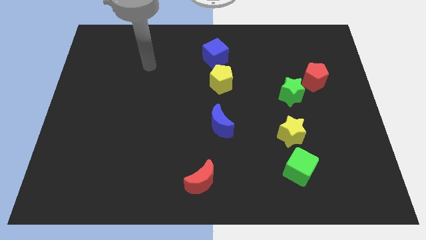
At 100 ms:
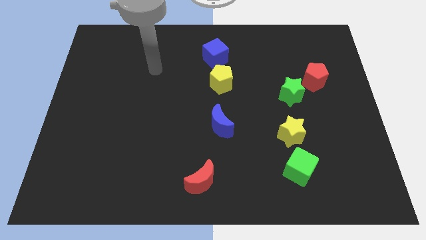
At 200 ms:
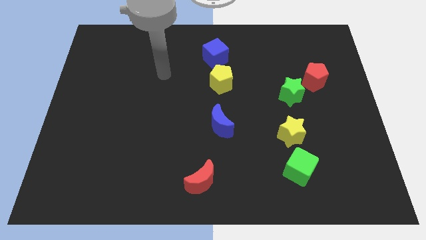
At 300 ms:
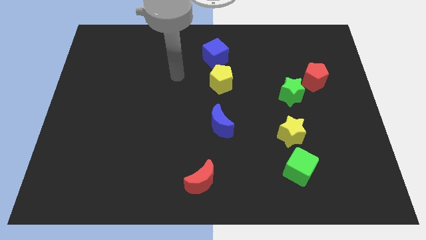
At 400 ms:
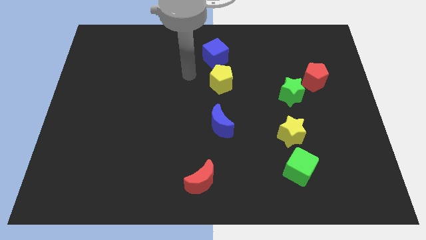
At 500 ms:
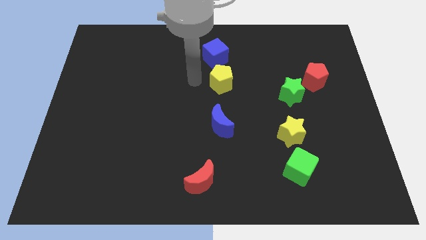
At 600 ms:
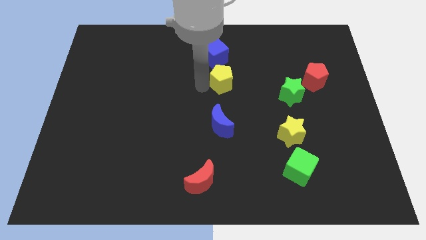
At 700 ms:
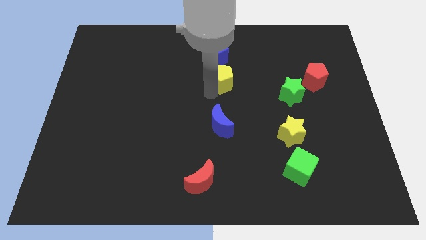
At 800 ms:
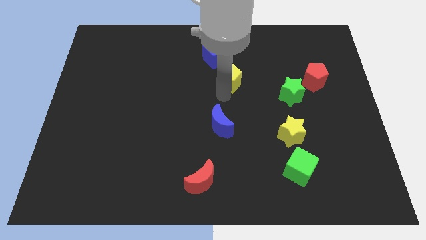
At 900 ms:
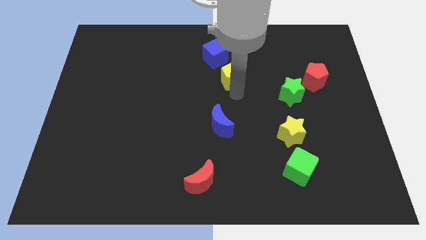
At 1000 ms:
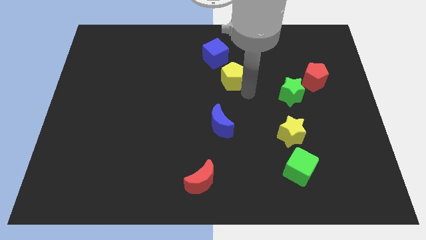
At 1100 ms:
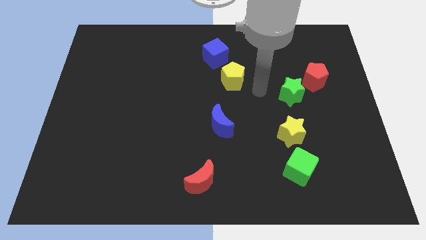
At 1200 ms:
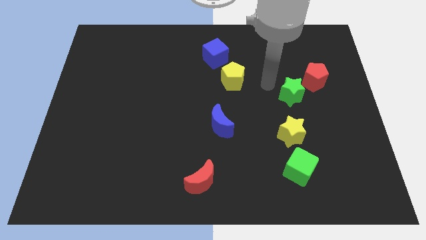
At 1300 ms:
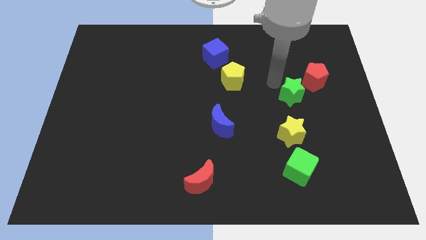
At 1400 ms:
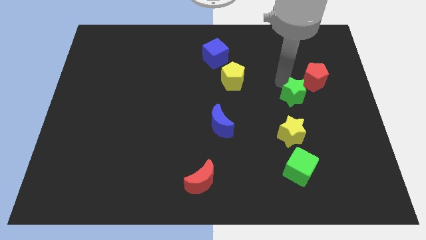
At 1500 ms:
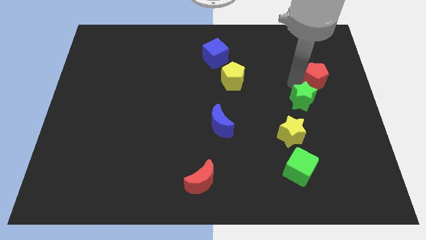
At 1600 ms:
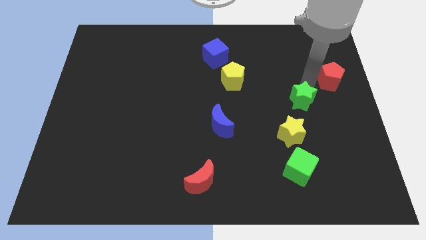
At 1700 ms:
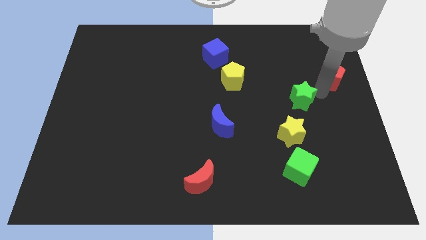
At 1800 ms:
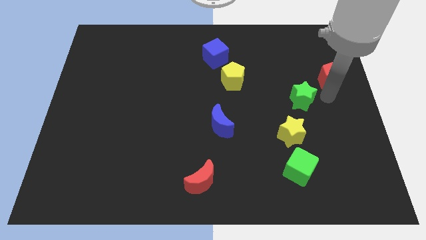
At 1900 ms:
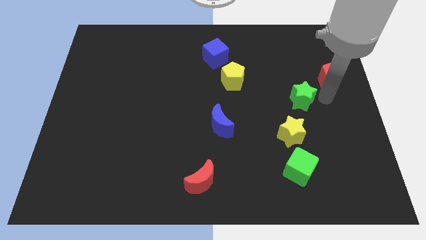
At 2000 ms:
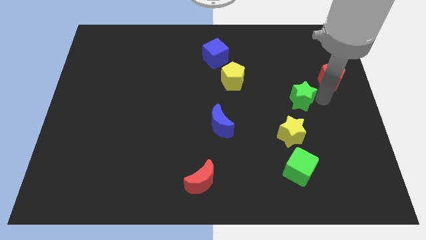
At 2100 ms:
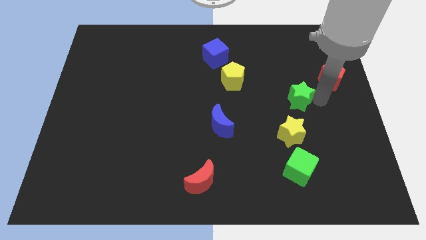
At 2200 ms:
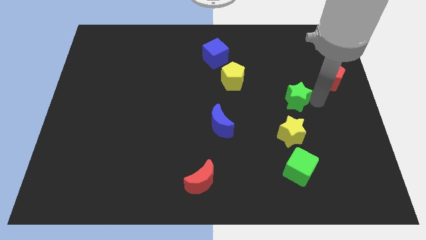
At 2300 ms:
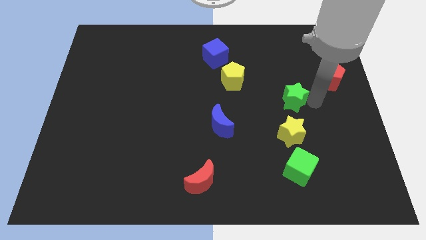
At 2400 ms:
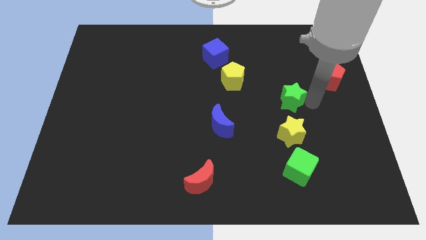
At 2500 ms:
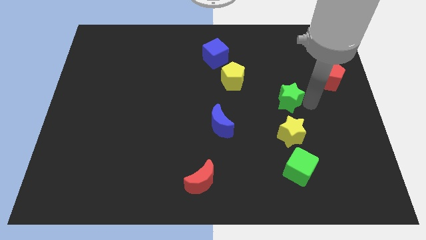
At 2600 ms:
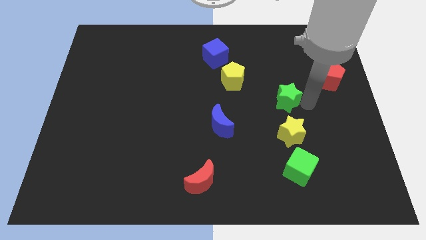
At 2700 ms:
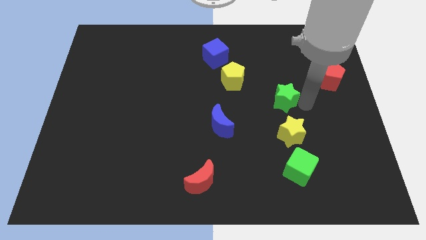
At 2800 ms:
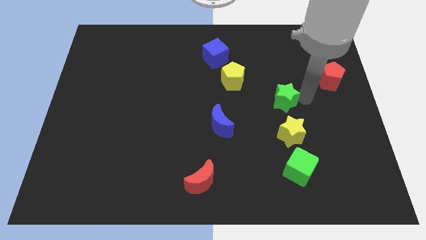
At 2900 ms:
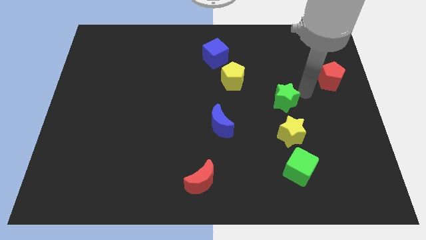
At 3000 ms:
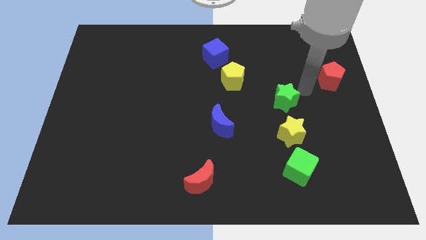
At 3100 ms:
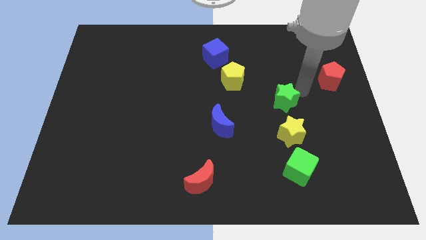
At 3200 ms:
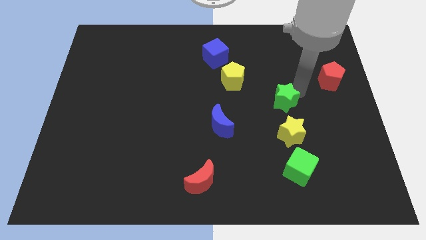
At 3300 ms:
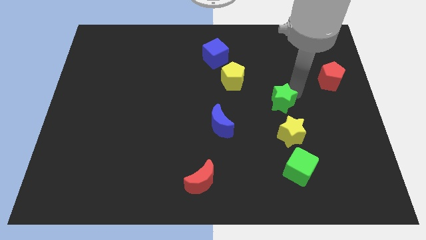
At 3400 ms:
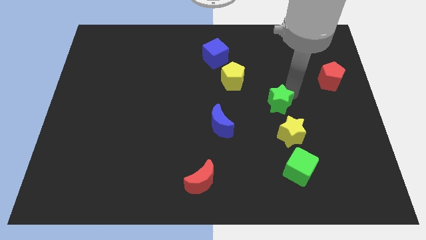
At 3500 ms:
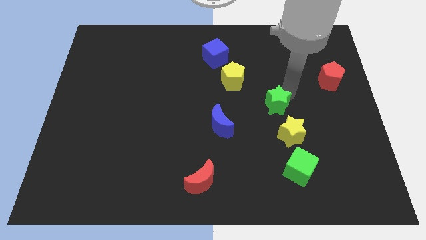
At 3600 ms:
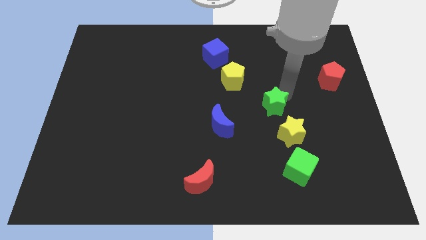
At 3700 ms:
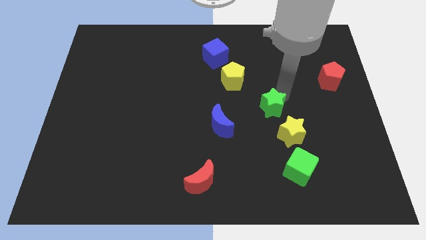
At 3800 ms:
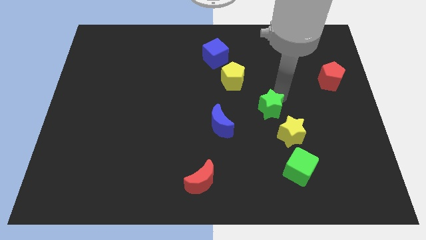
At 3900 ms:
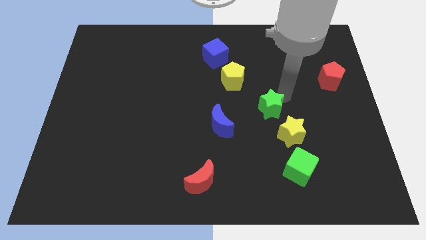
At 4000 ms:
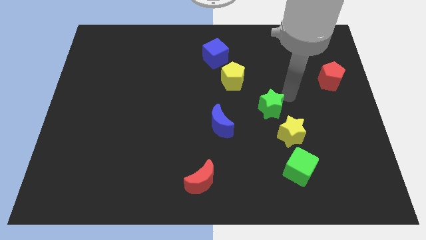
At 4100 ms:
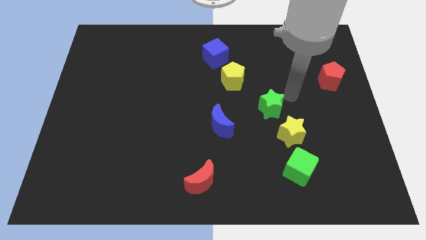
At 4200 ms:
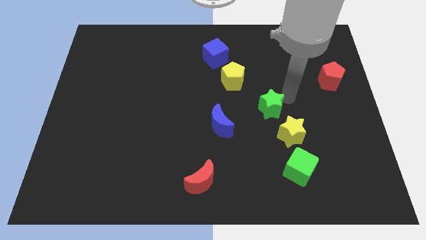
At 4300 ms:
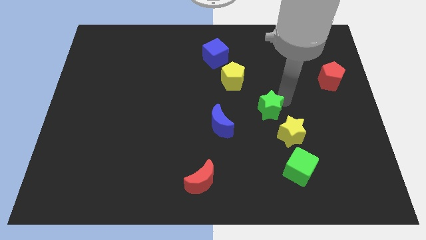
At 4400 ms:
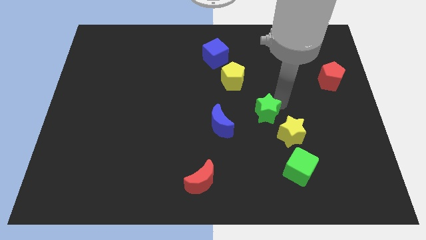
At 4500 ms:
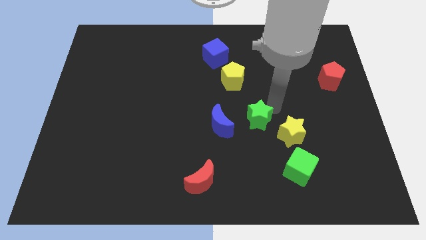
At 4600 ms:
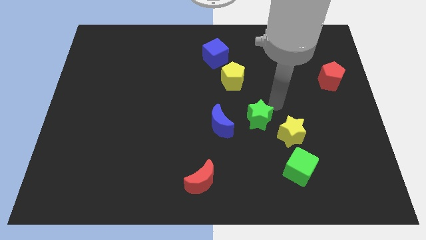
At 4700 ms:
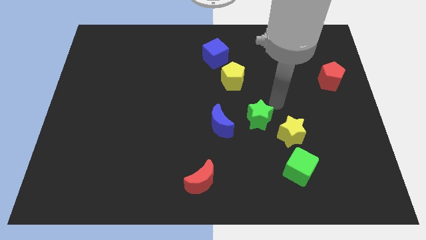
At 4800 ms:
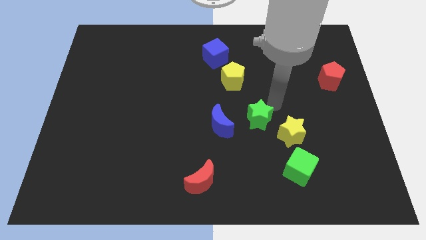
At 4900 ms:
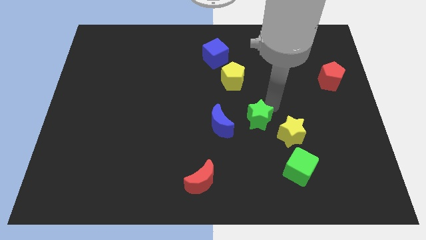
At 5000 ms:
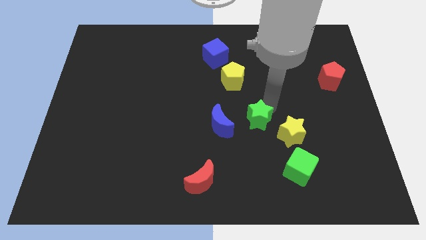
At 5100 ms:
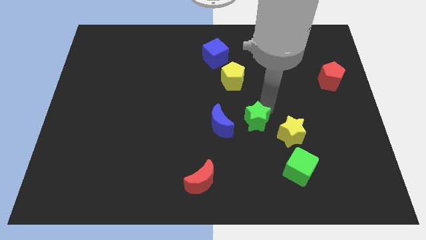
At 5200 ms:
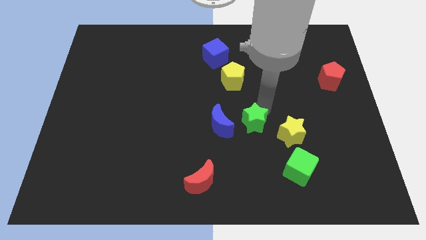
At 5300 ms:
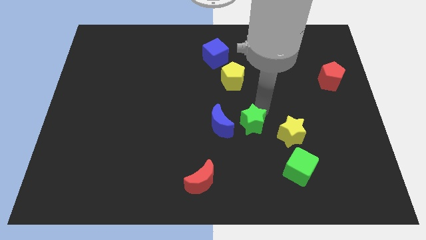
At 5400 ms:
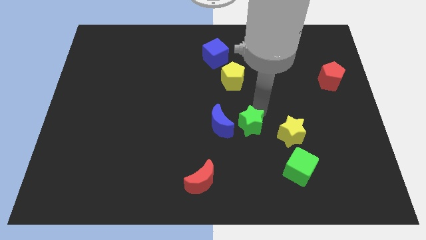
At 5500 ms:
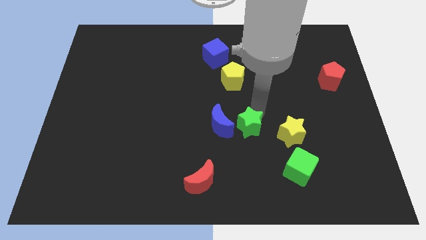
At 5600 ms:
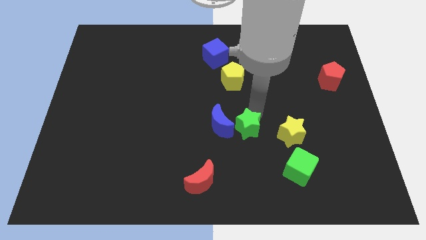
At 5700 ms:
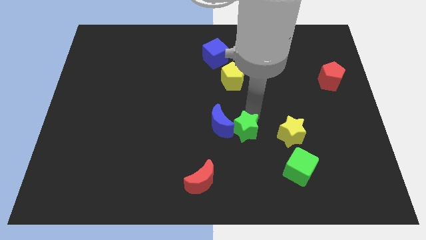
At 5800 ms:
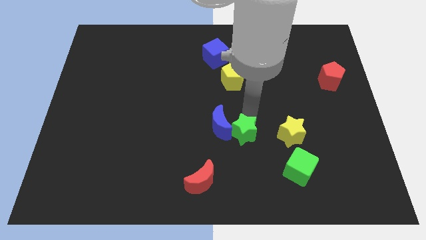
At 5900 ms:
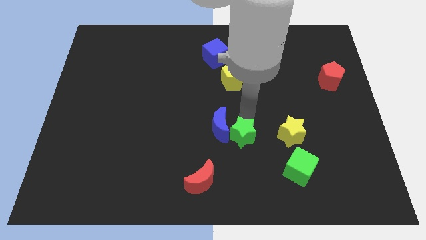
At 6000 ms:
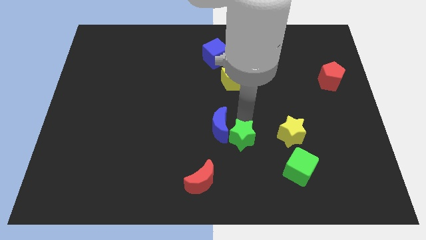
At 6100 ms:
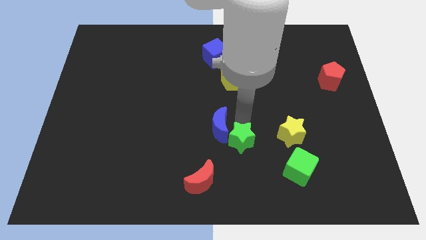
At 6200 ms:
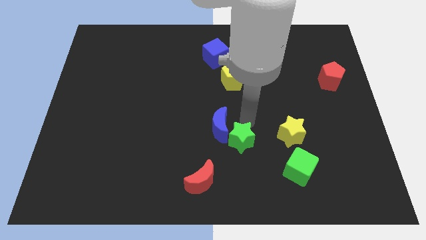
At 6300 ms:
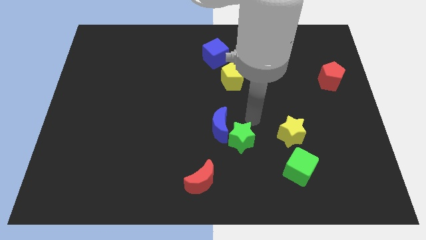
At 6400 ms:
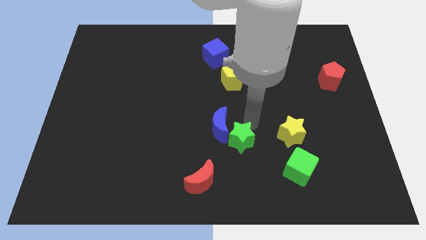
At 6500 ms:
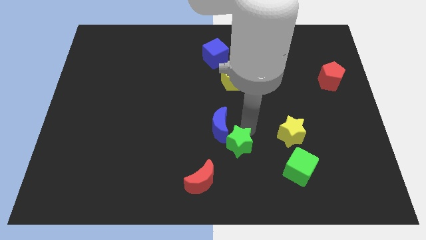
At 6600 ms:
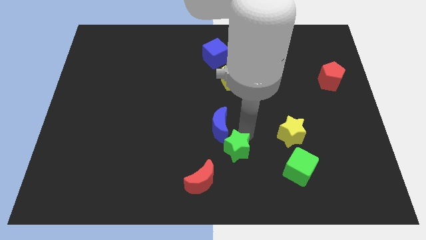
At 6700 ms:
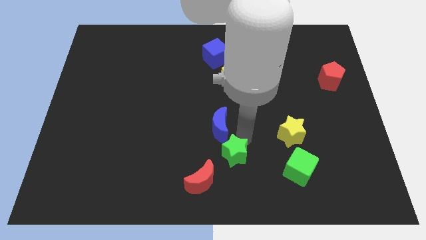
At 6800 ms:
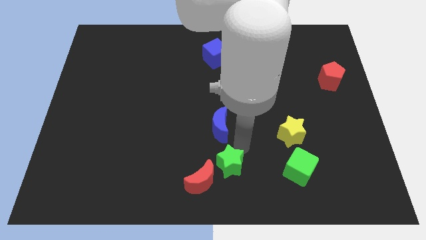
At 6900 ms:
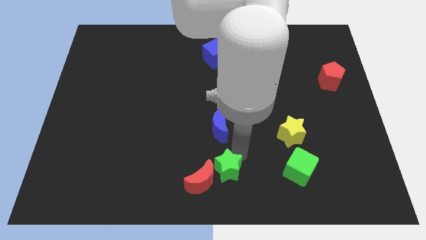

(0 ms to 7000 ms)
put the green star towards the red moon

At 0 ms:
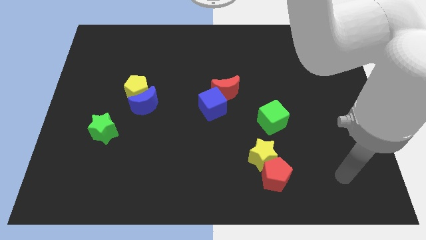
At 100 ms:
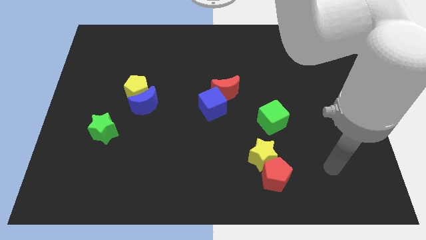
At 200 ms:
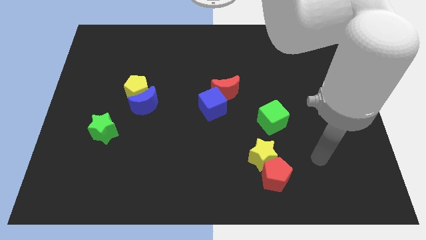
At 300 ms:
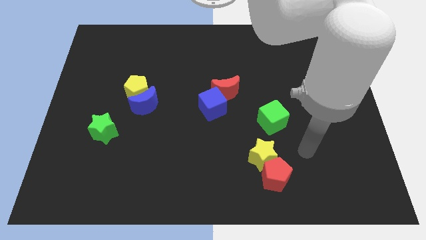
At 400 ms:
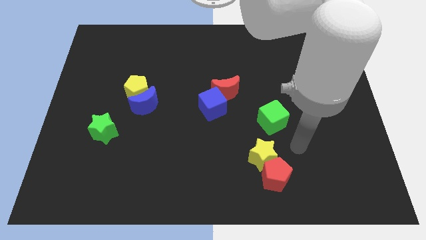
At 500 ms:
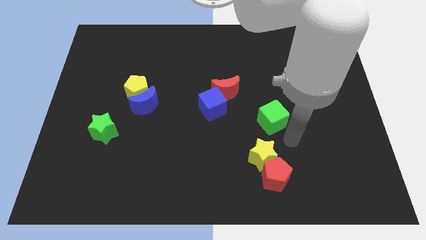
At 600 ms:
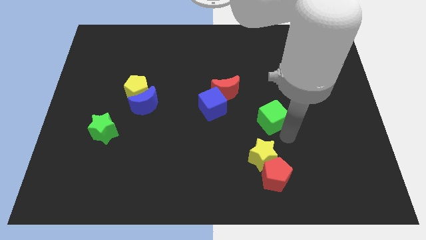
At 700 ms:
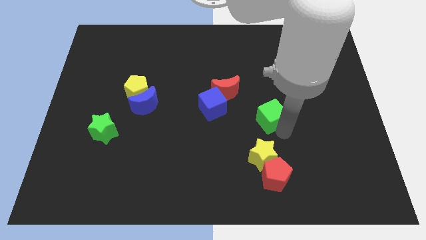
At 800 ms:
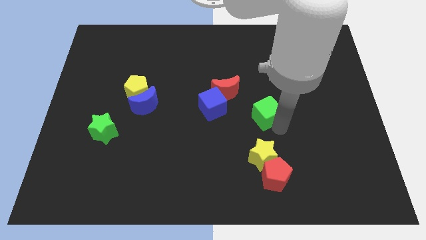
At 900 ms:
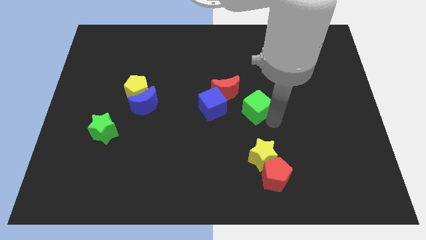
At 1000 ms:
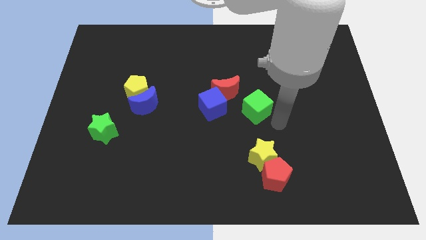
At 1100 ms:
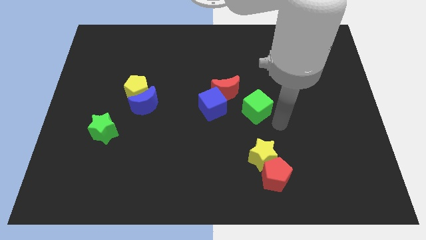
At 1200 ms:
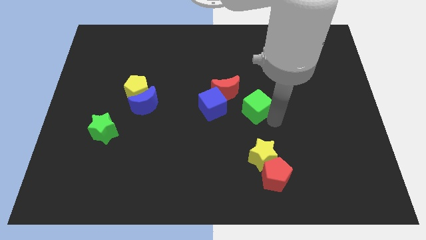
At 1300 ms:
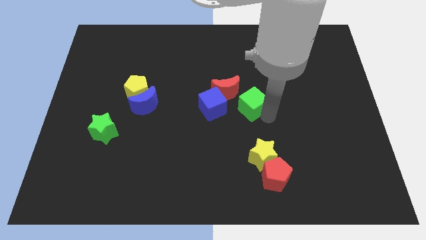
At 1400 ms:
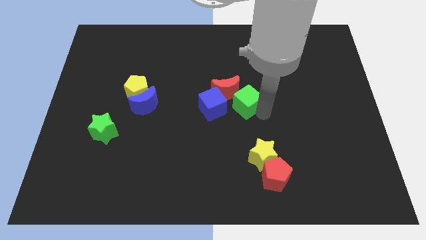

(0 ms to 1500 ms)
slide the green cube next to the red moon
